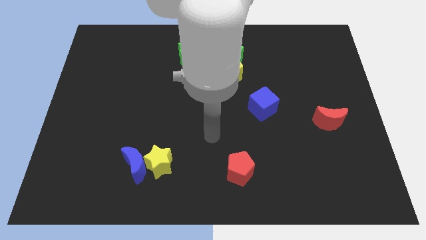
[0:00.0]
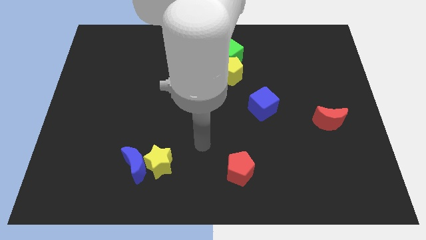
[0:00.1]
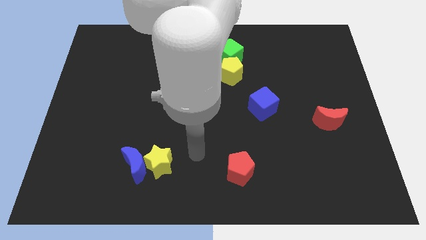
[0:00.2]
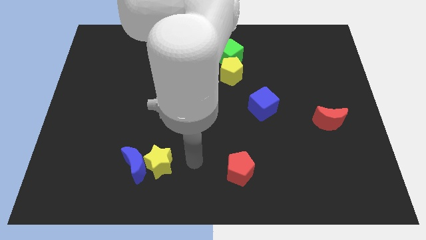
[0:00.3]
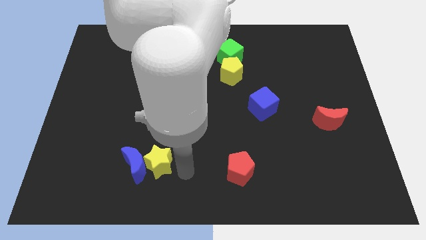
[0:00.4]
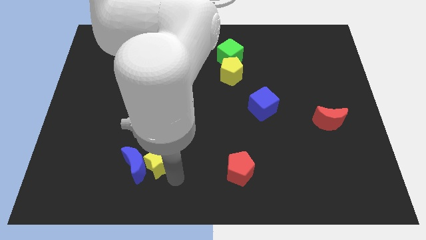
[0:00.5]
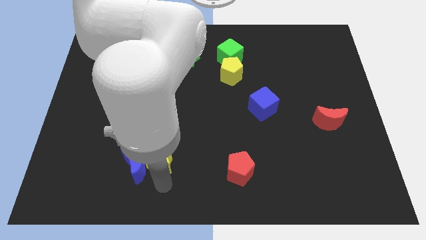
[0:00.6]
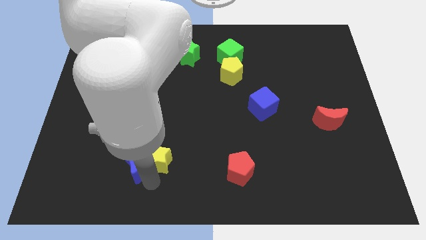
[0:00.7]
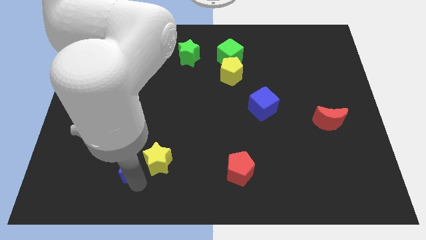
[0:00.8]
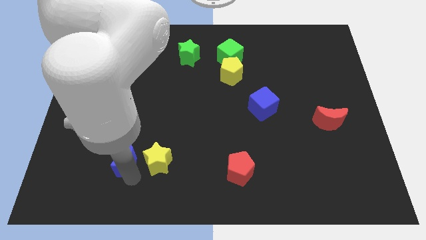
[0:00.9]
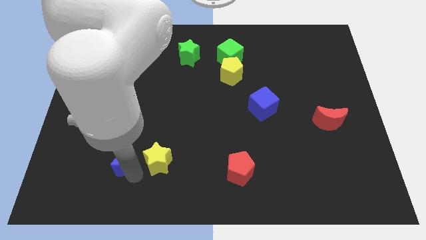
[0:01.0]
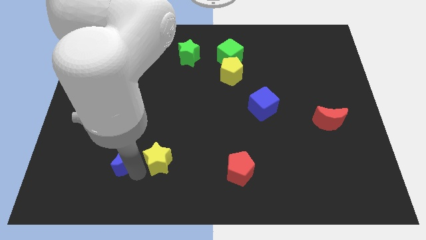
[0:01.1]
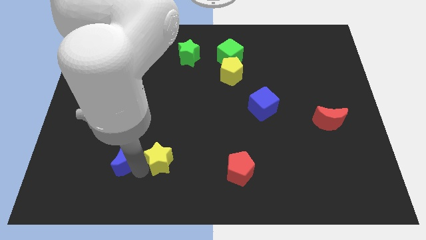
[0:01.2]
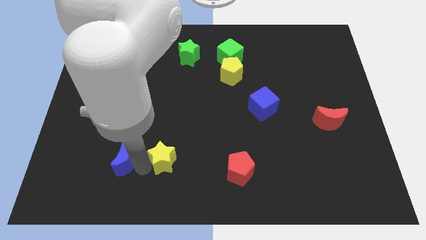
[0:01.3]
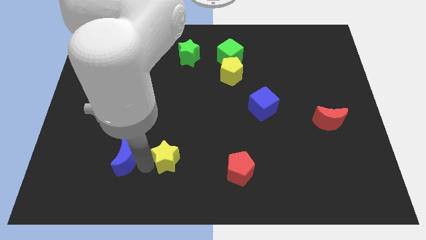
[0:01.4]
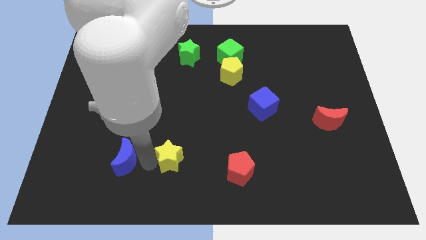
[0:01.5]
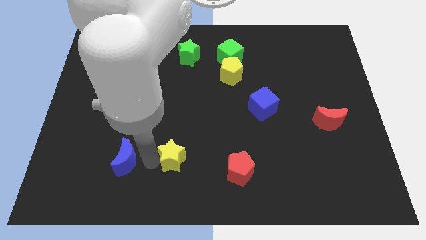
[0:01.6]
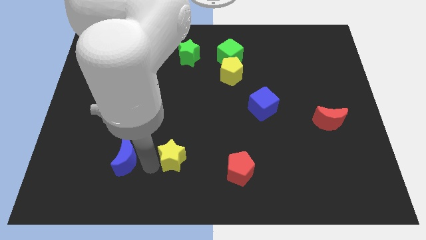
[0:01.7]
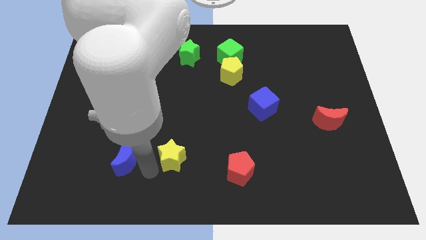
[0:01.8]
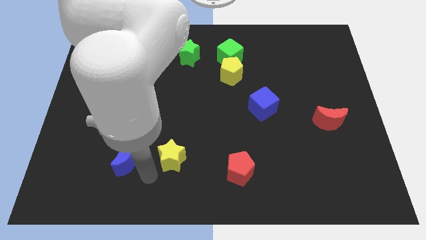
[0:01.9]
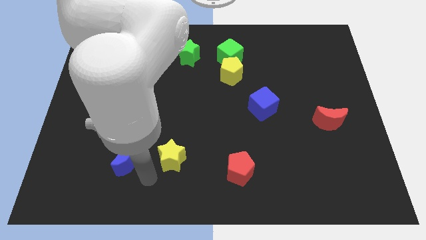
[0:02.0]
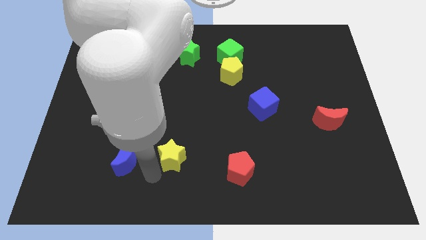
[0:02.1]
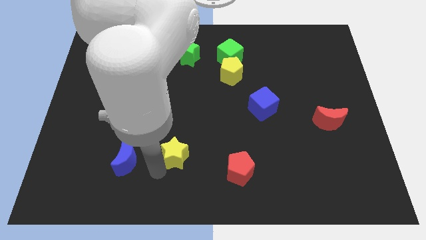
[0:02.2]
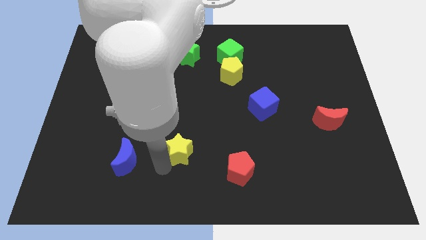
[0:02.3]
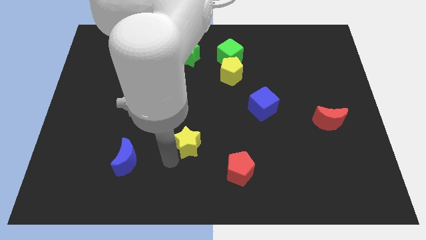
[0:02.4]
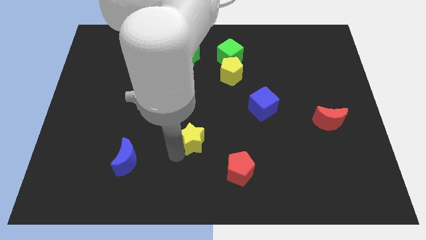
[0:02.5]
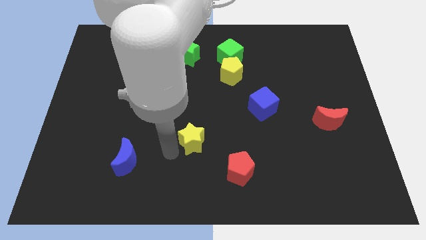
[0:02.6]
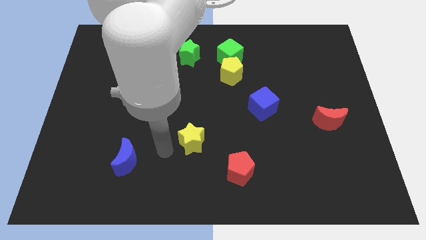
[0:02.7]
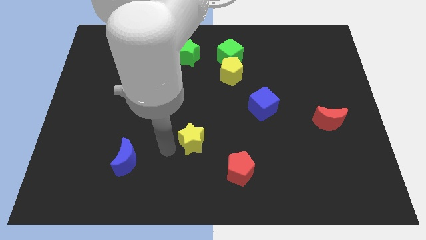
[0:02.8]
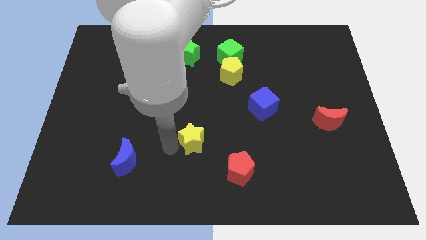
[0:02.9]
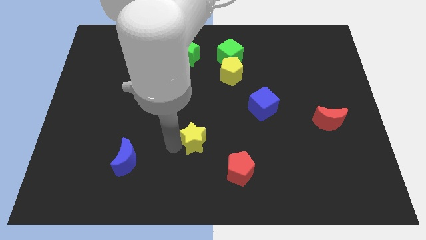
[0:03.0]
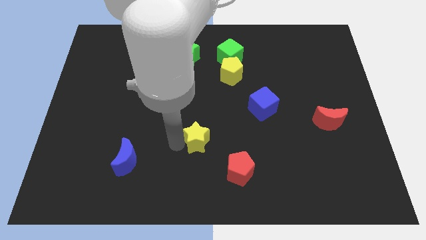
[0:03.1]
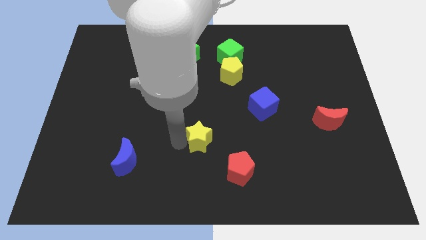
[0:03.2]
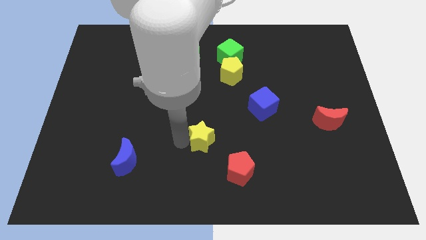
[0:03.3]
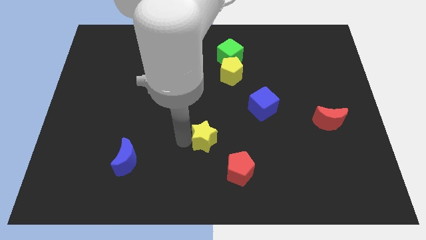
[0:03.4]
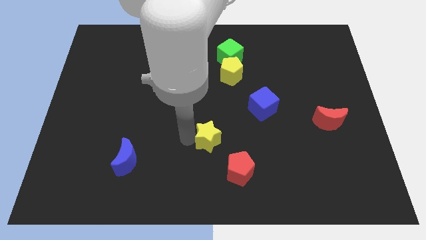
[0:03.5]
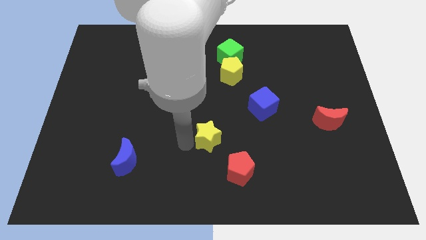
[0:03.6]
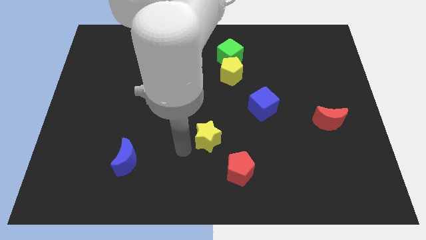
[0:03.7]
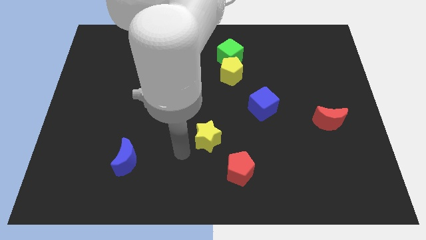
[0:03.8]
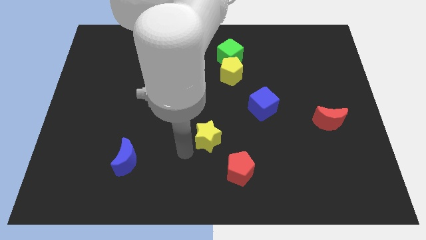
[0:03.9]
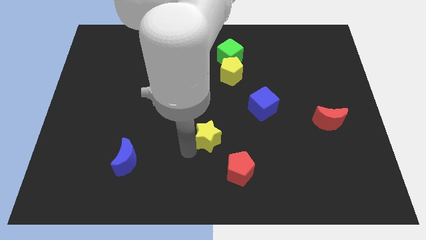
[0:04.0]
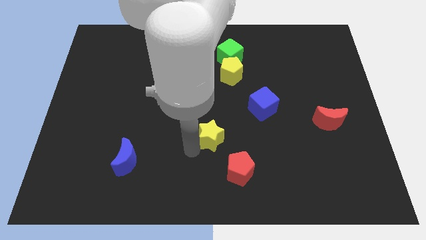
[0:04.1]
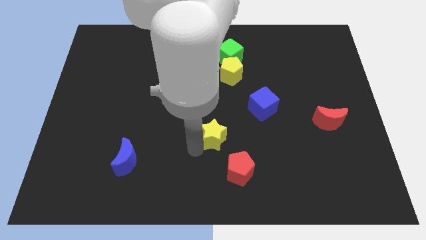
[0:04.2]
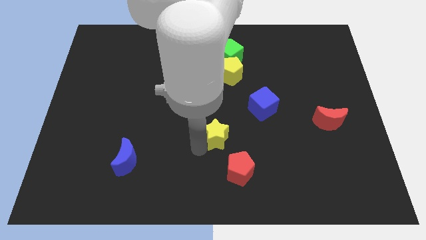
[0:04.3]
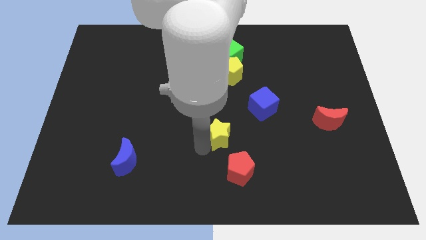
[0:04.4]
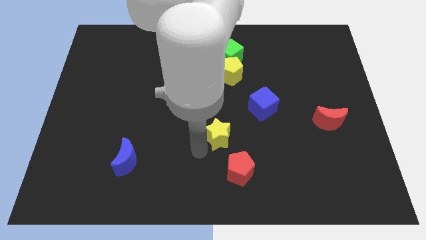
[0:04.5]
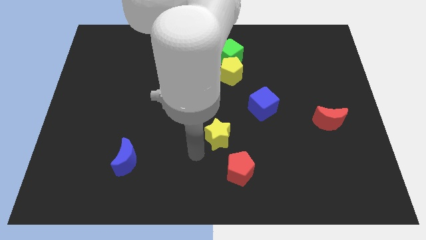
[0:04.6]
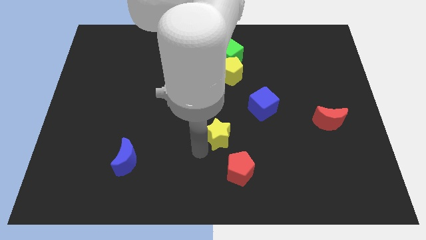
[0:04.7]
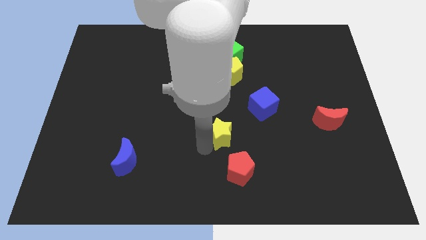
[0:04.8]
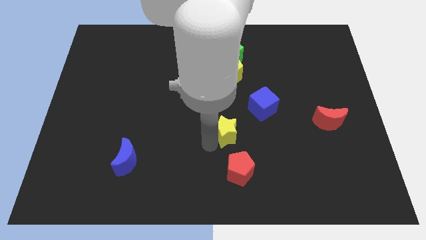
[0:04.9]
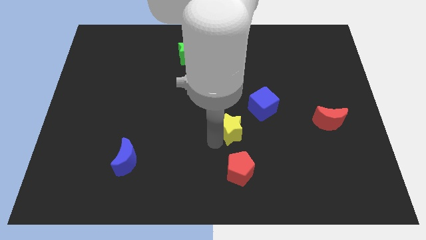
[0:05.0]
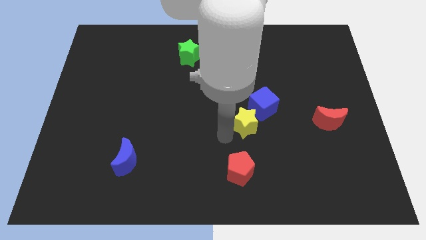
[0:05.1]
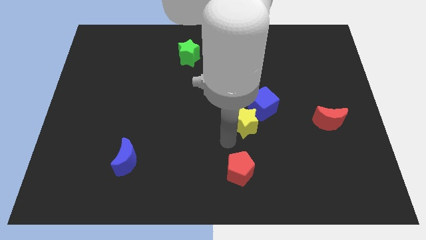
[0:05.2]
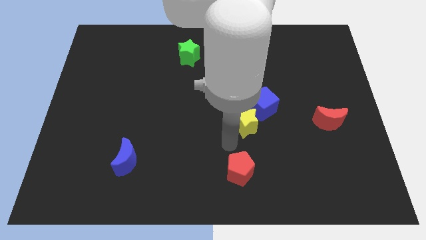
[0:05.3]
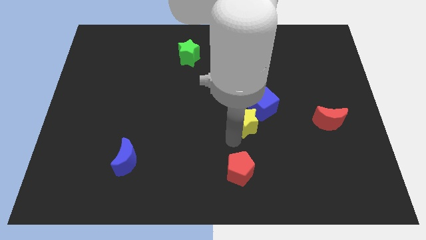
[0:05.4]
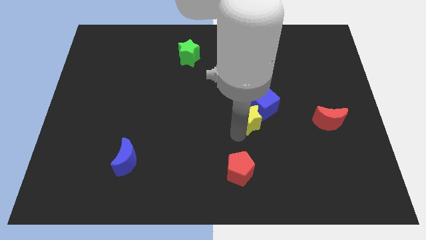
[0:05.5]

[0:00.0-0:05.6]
move the yellow star close to the blue cube

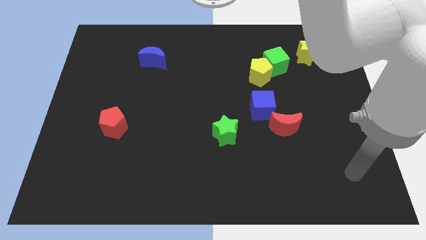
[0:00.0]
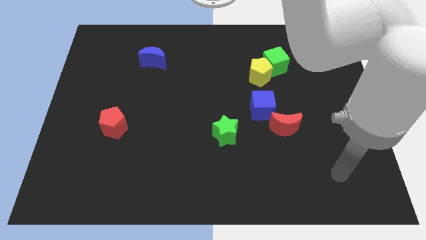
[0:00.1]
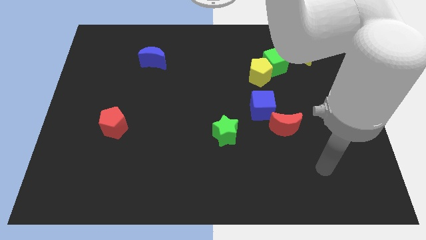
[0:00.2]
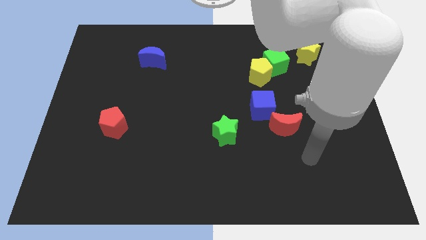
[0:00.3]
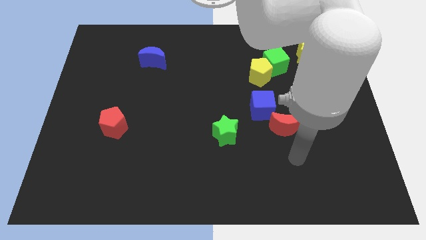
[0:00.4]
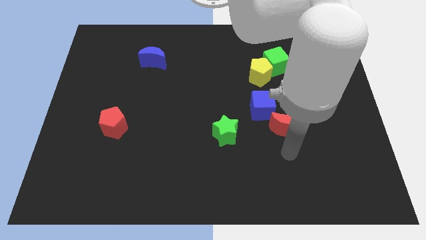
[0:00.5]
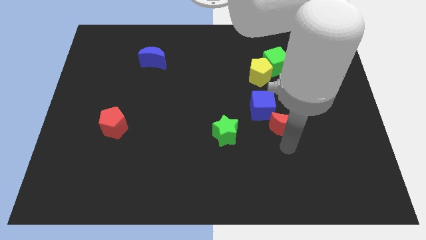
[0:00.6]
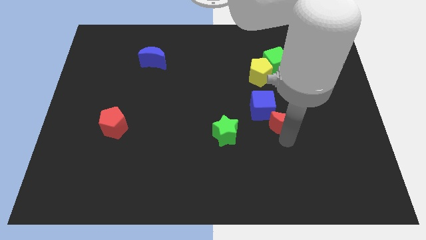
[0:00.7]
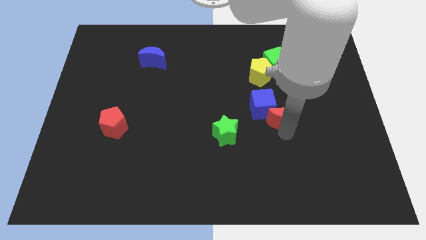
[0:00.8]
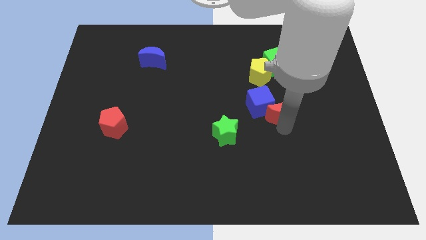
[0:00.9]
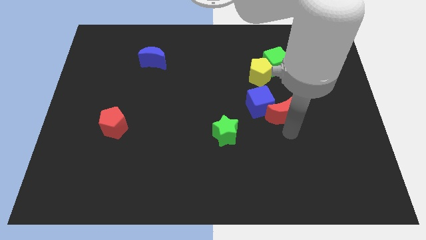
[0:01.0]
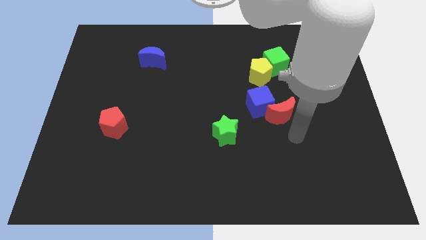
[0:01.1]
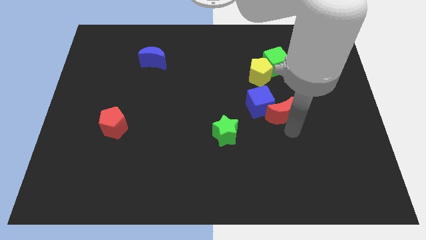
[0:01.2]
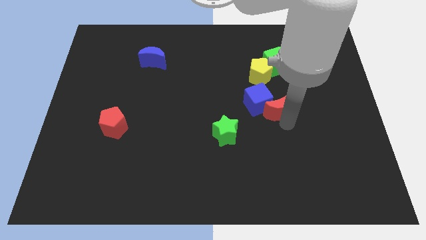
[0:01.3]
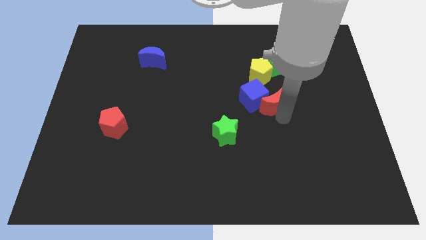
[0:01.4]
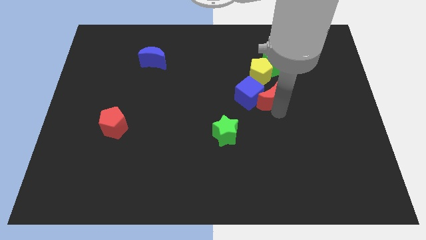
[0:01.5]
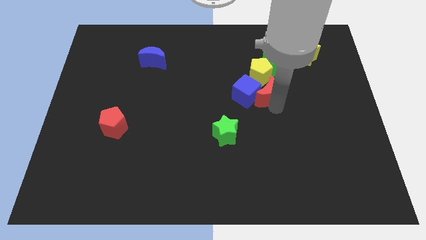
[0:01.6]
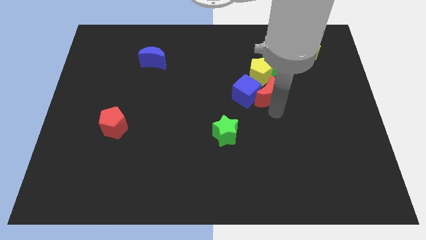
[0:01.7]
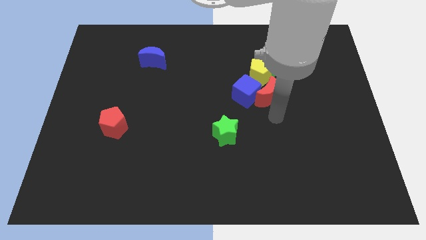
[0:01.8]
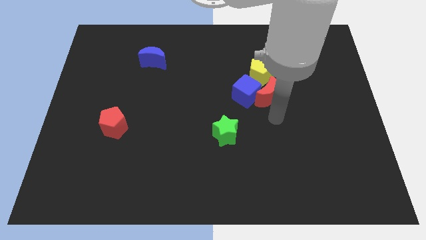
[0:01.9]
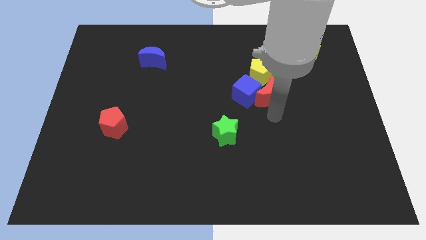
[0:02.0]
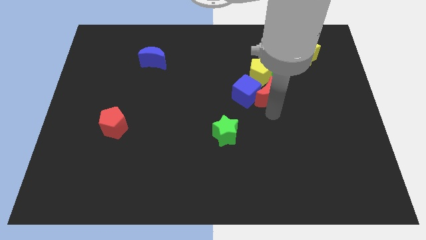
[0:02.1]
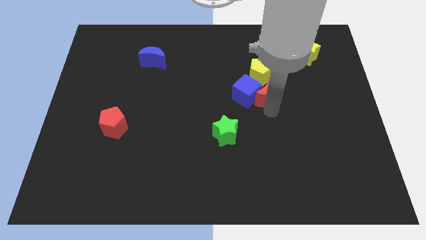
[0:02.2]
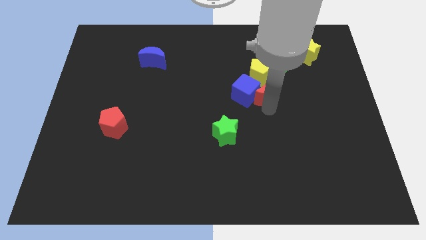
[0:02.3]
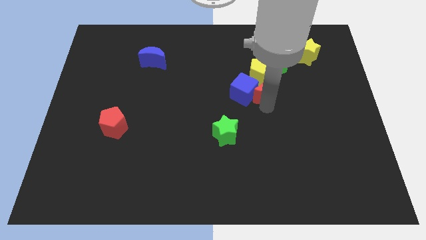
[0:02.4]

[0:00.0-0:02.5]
put the red moon next to the yellow pentagon
